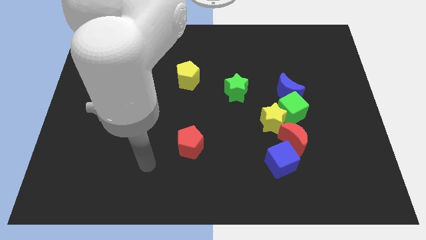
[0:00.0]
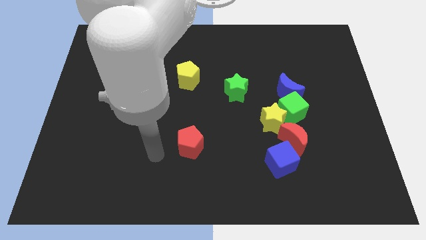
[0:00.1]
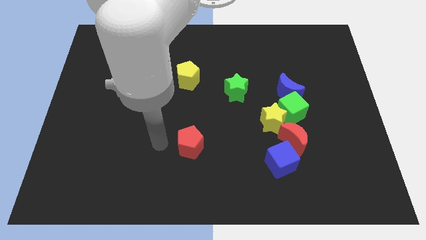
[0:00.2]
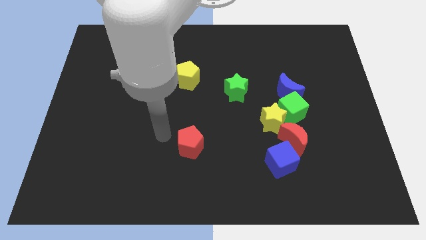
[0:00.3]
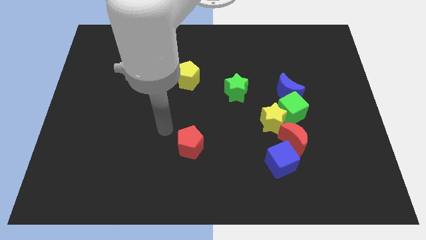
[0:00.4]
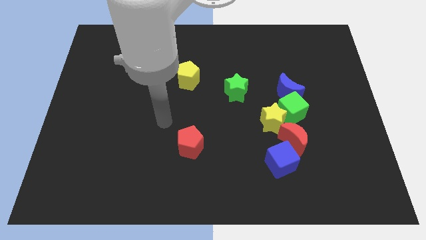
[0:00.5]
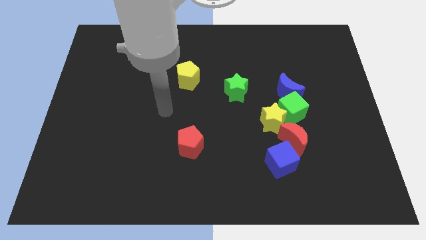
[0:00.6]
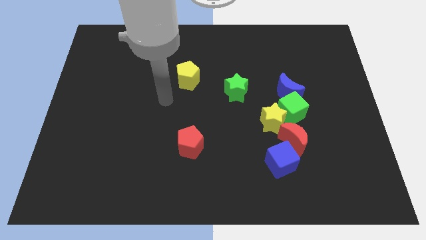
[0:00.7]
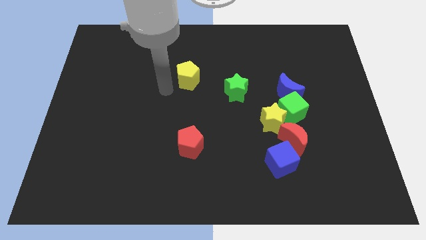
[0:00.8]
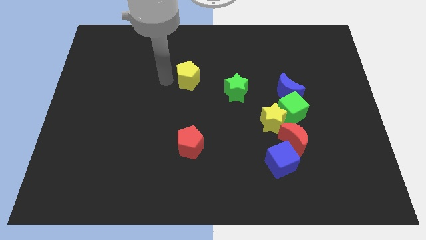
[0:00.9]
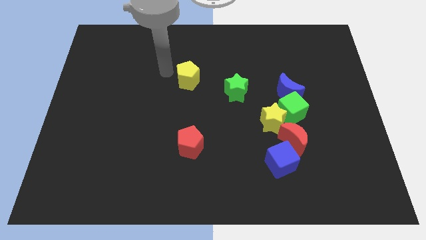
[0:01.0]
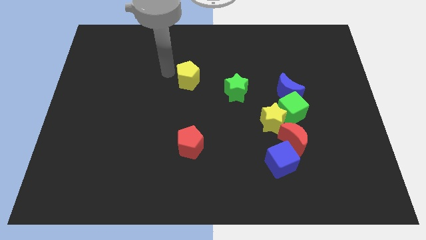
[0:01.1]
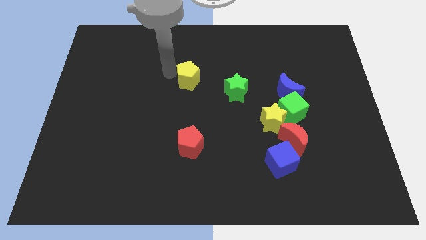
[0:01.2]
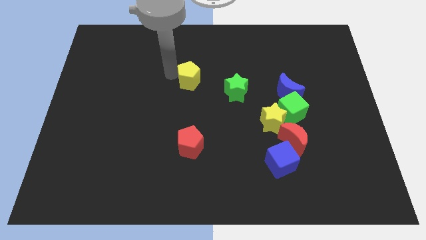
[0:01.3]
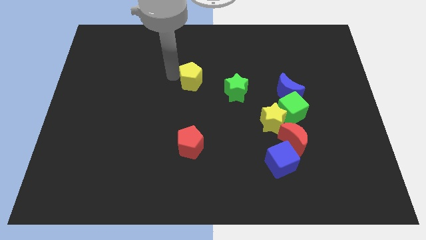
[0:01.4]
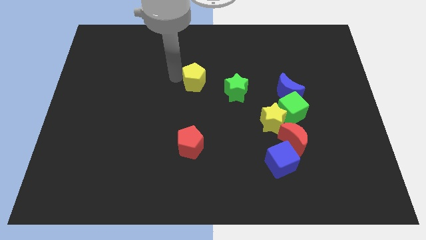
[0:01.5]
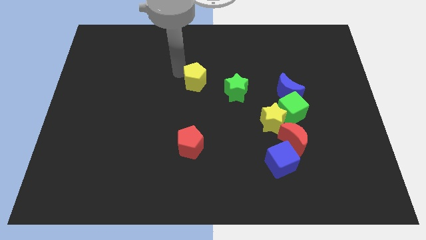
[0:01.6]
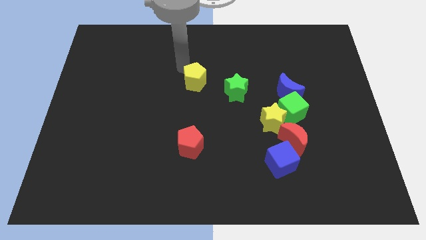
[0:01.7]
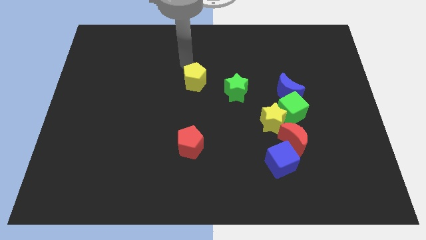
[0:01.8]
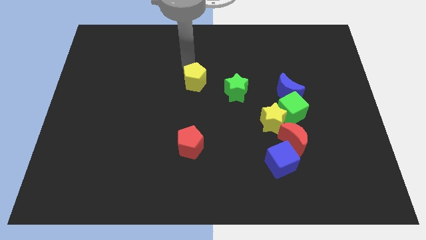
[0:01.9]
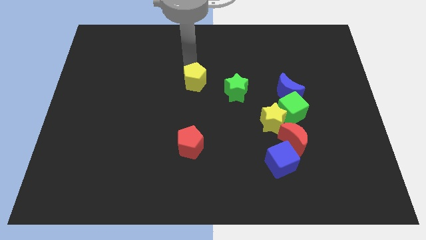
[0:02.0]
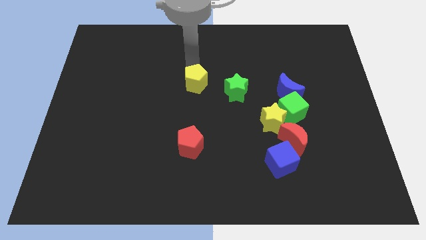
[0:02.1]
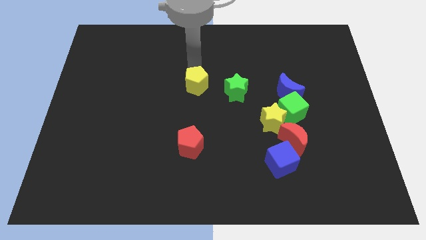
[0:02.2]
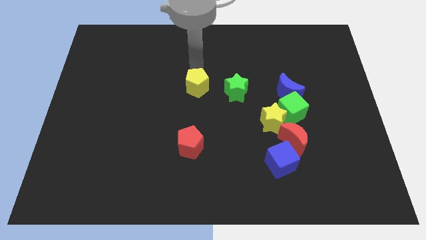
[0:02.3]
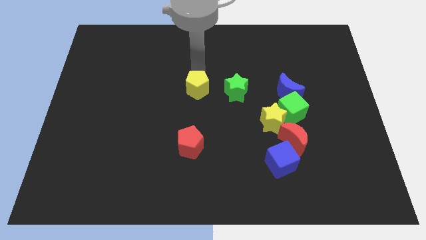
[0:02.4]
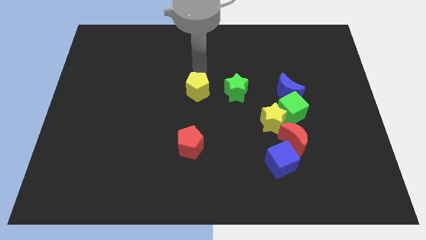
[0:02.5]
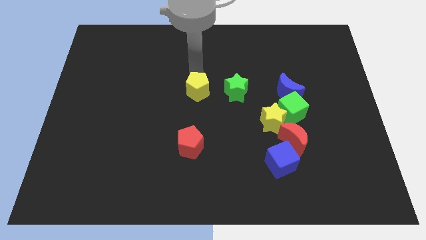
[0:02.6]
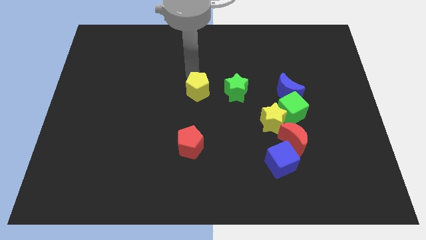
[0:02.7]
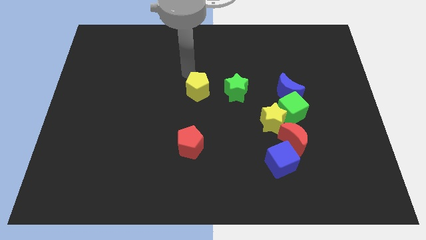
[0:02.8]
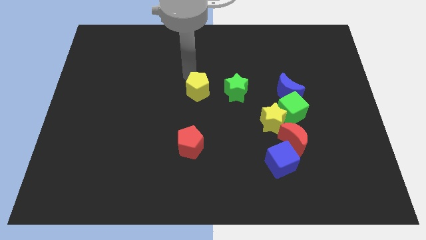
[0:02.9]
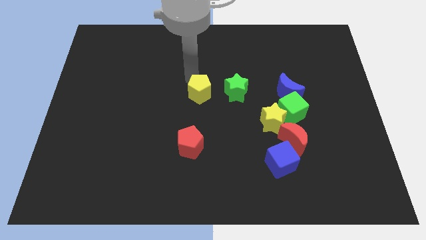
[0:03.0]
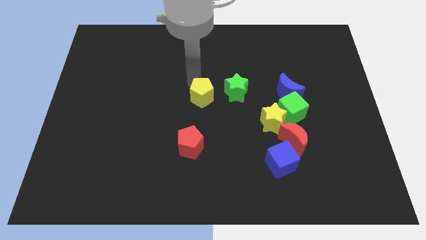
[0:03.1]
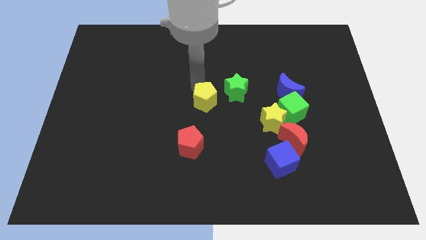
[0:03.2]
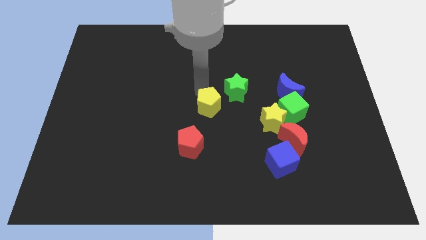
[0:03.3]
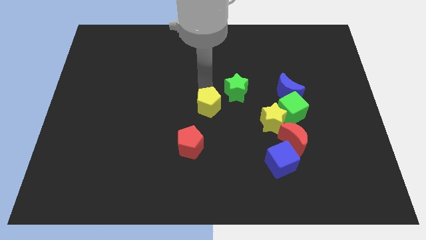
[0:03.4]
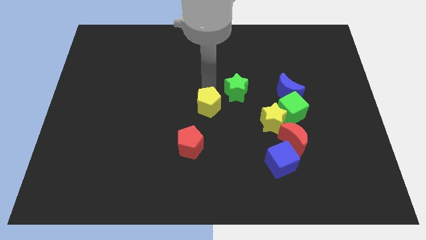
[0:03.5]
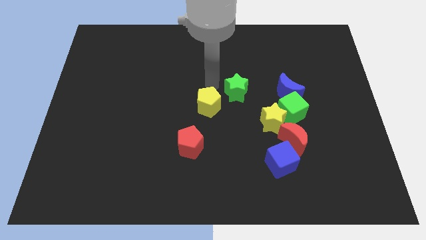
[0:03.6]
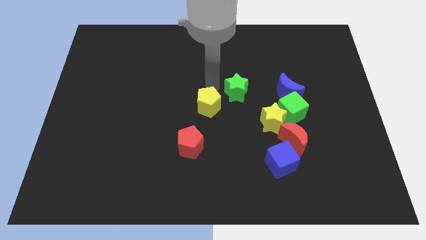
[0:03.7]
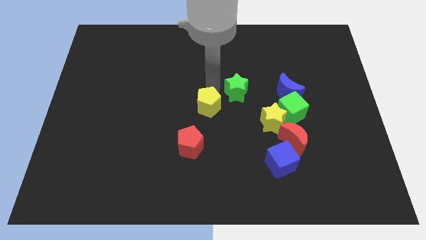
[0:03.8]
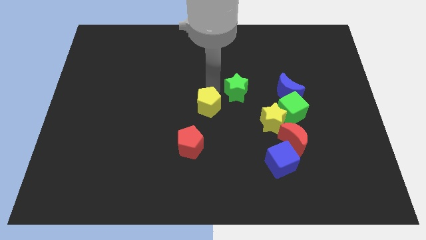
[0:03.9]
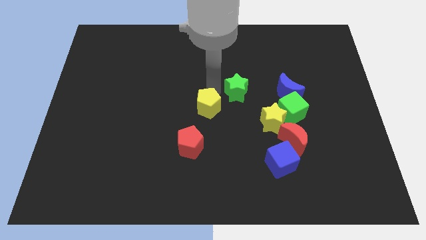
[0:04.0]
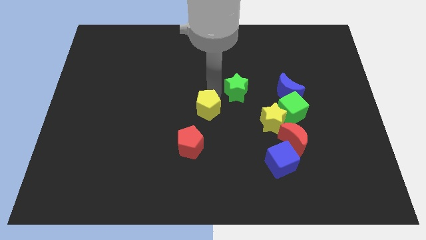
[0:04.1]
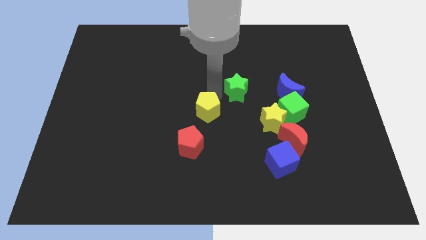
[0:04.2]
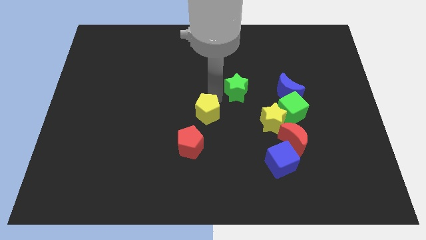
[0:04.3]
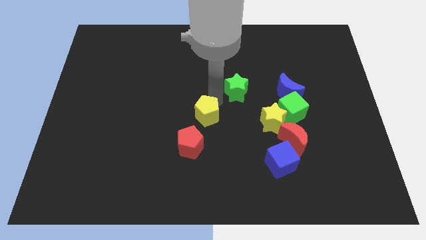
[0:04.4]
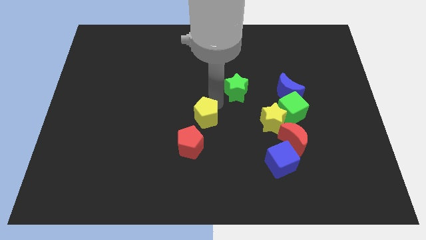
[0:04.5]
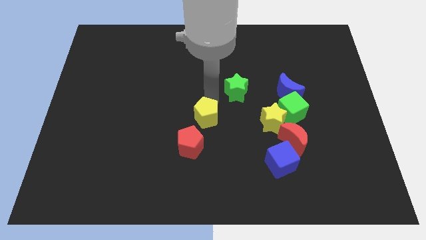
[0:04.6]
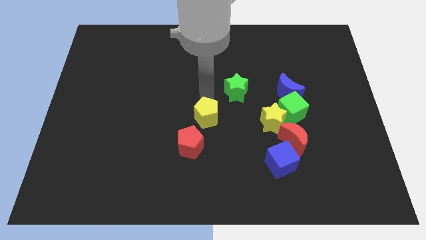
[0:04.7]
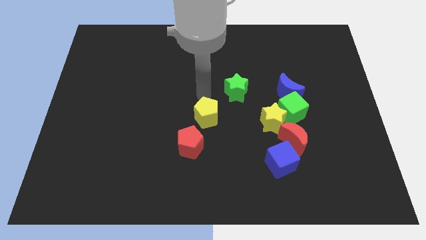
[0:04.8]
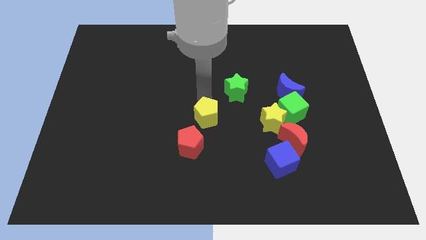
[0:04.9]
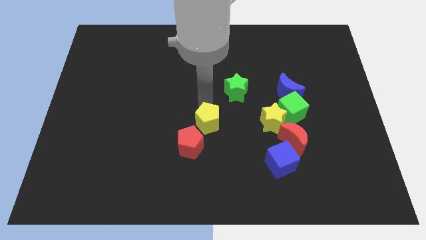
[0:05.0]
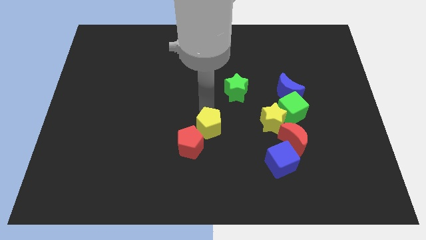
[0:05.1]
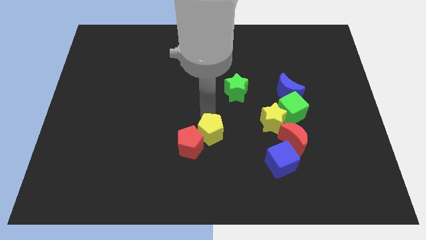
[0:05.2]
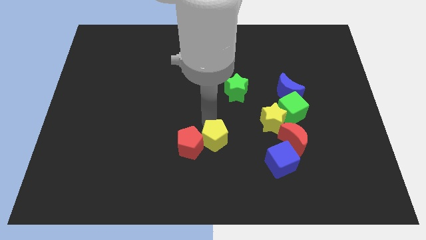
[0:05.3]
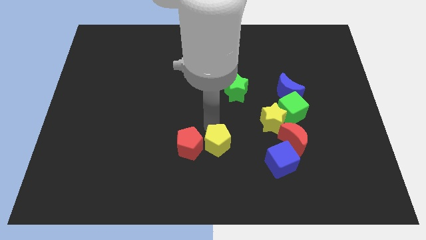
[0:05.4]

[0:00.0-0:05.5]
slide the yellow pentagon diagonally down and to the right of the red pentagon

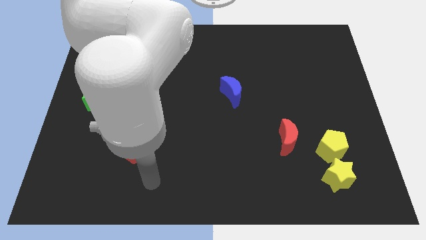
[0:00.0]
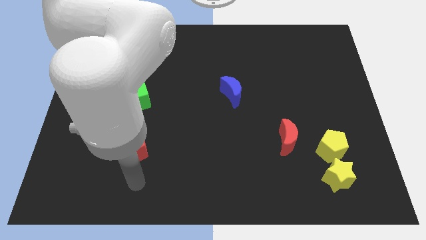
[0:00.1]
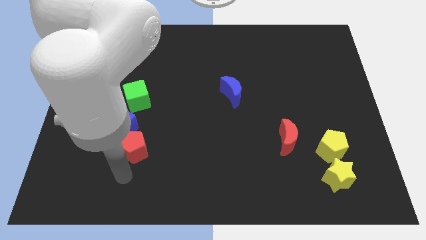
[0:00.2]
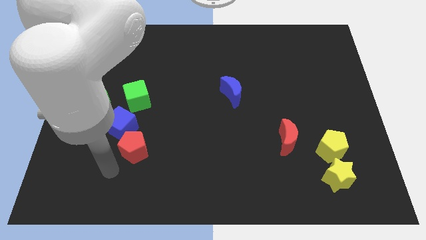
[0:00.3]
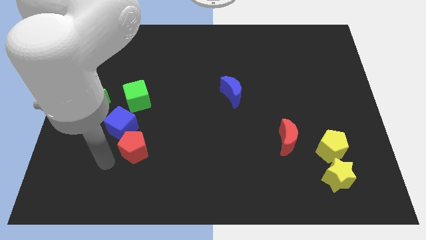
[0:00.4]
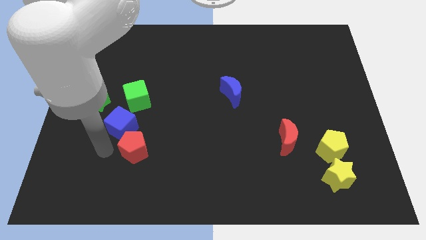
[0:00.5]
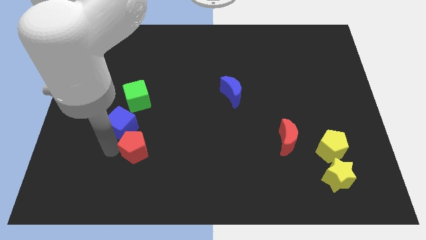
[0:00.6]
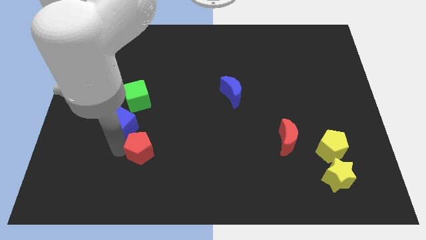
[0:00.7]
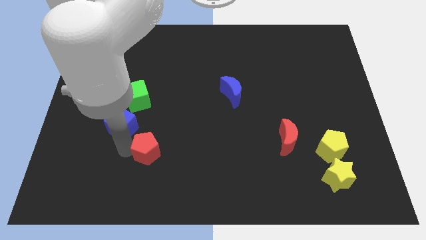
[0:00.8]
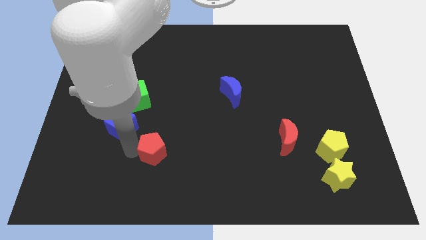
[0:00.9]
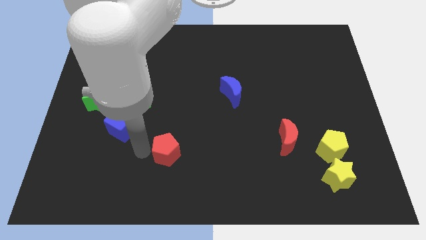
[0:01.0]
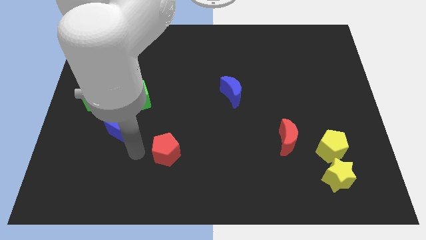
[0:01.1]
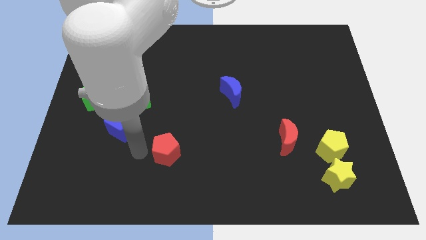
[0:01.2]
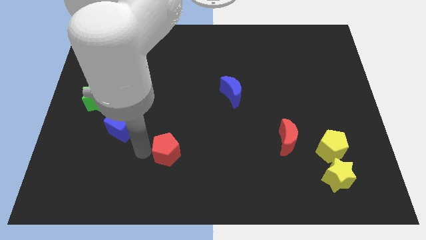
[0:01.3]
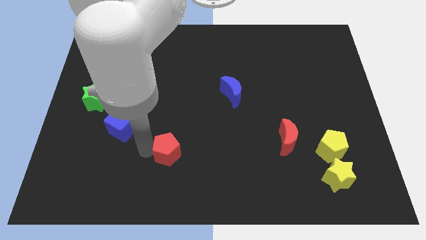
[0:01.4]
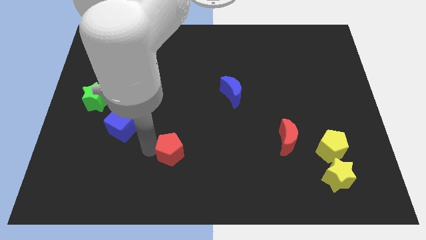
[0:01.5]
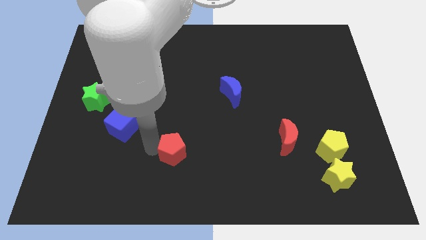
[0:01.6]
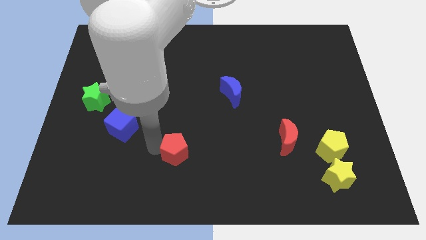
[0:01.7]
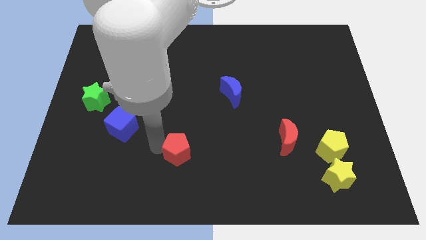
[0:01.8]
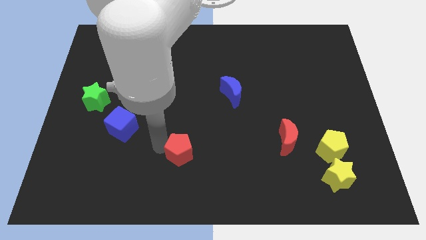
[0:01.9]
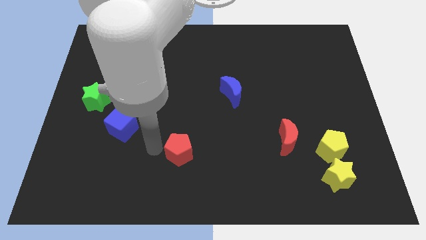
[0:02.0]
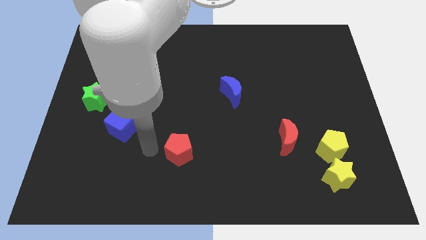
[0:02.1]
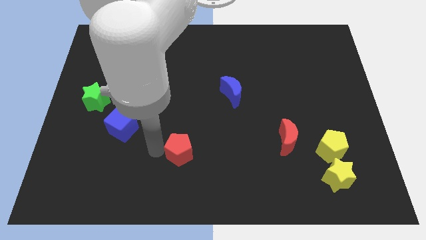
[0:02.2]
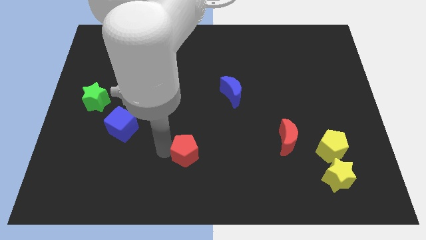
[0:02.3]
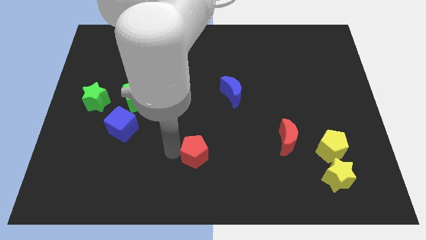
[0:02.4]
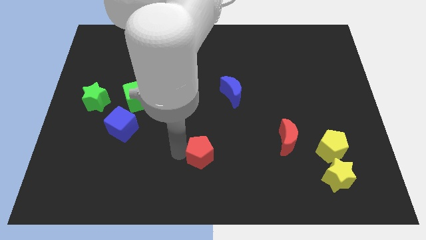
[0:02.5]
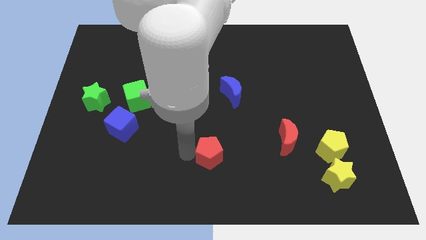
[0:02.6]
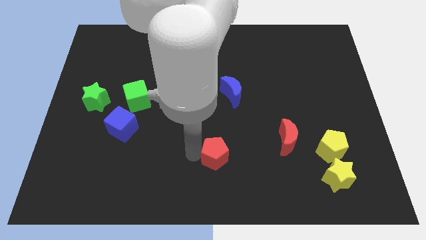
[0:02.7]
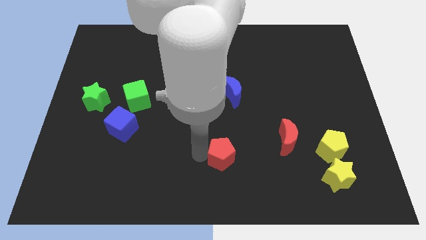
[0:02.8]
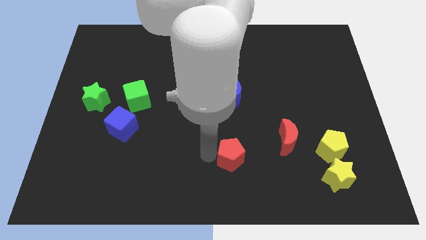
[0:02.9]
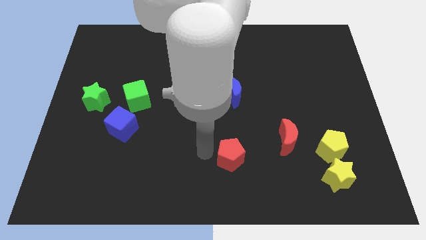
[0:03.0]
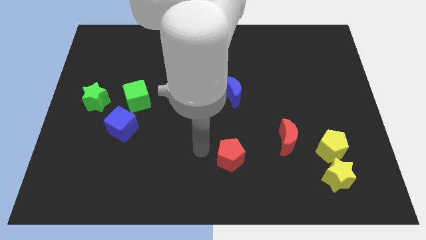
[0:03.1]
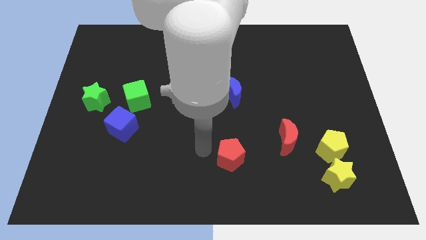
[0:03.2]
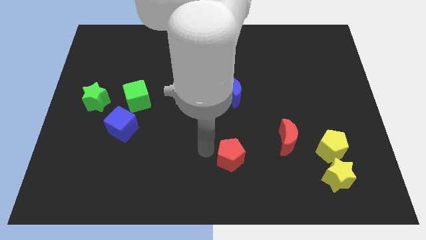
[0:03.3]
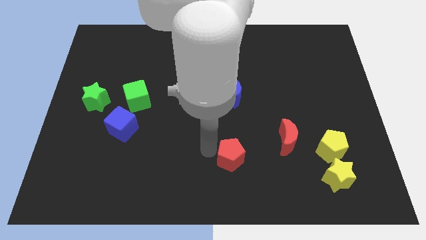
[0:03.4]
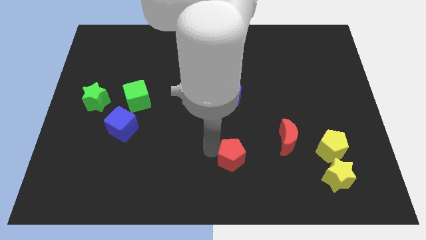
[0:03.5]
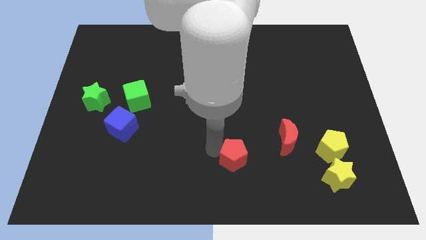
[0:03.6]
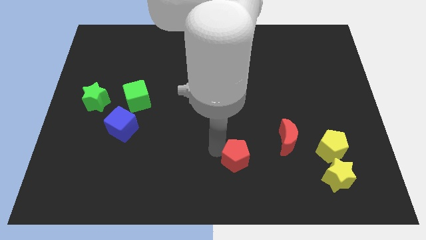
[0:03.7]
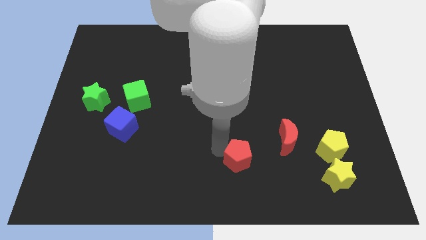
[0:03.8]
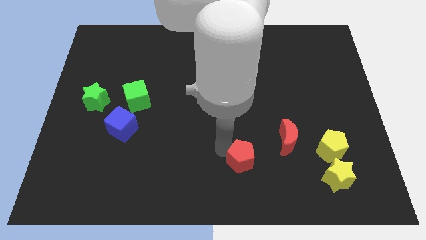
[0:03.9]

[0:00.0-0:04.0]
put the red pentagon diagonally down and to the left of the red moon
